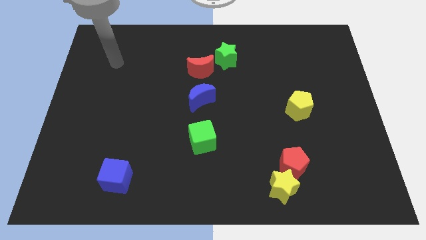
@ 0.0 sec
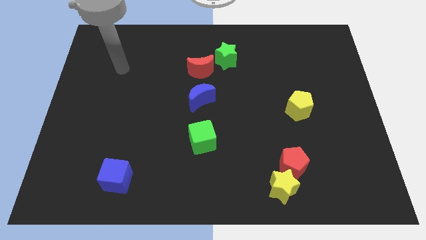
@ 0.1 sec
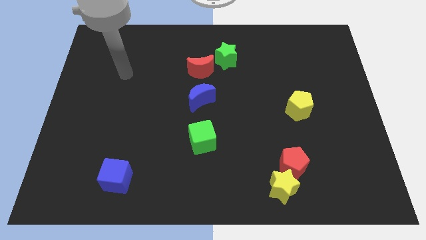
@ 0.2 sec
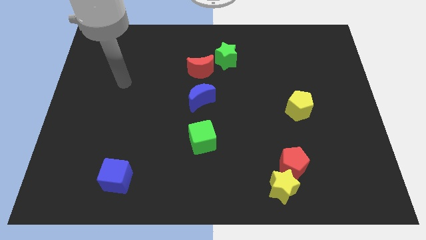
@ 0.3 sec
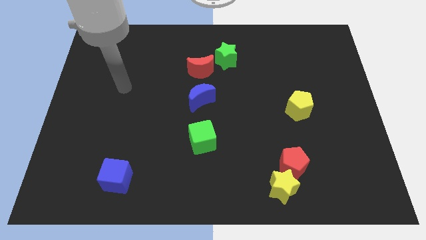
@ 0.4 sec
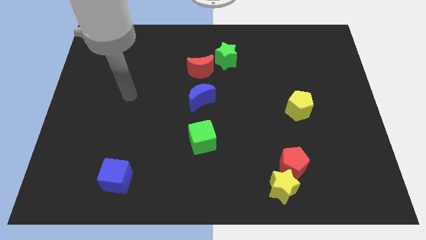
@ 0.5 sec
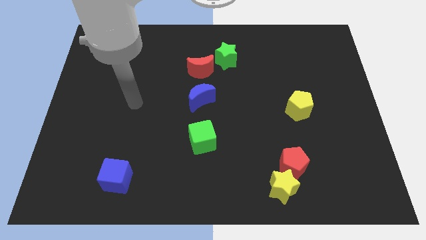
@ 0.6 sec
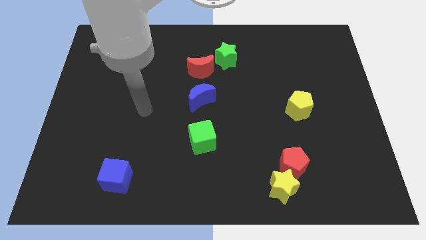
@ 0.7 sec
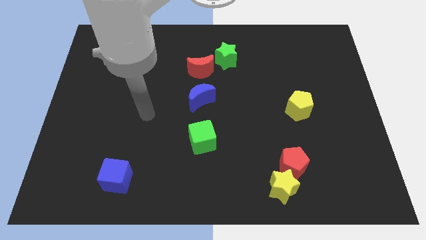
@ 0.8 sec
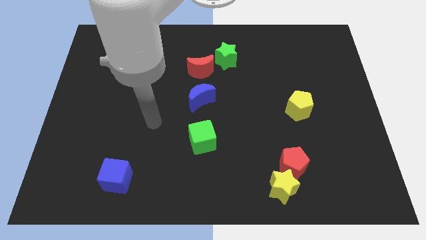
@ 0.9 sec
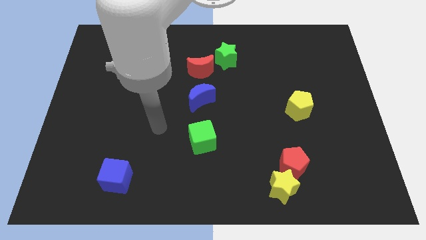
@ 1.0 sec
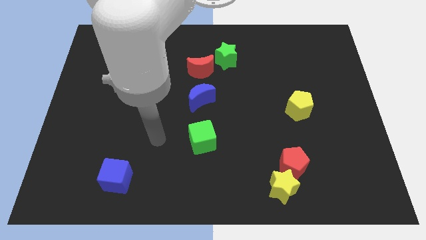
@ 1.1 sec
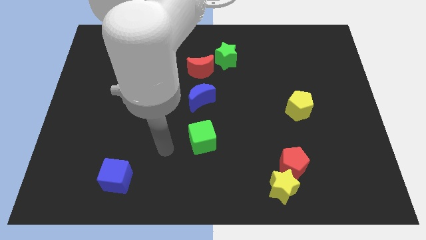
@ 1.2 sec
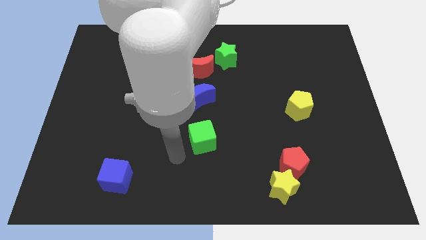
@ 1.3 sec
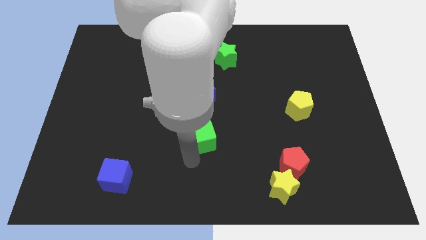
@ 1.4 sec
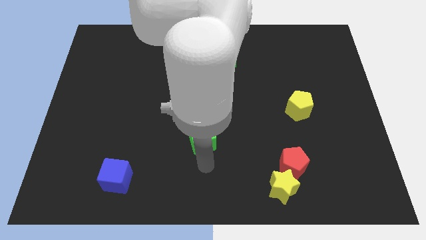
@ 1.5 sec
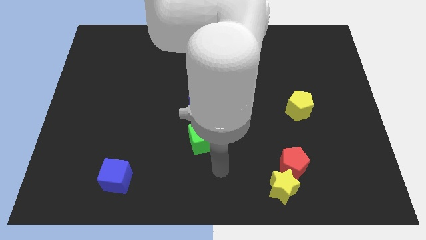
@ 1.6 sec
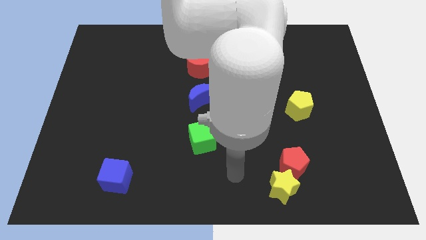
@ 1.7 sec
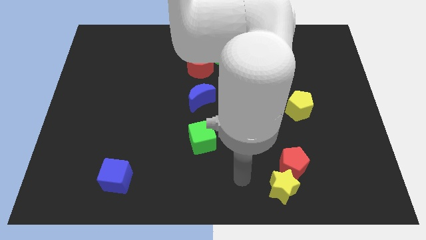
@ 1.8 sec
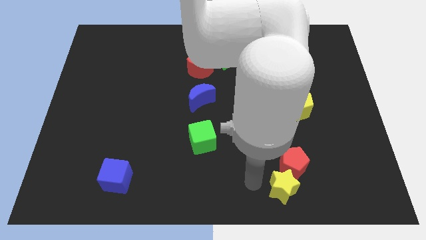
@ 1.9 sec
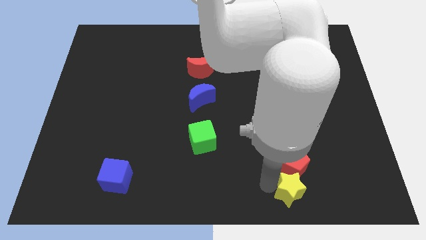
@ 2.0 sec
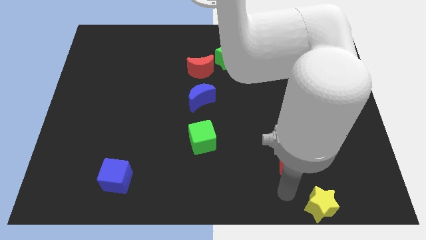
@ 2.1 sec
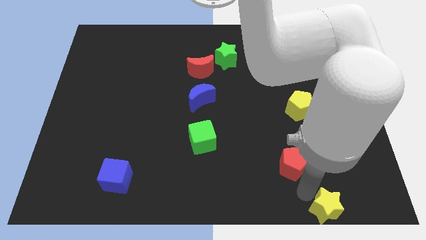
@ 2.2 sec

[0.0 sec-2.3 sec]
move the red pentagon away from the yellow star

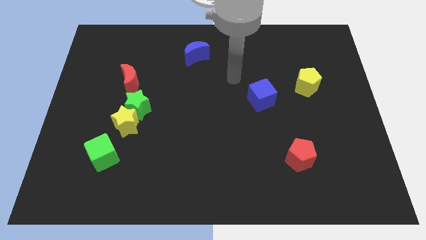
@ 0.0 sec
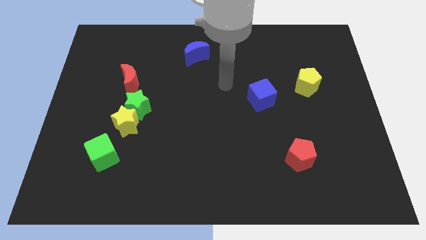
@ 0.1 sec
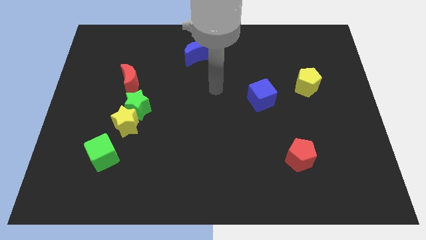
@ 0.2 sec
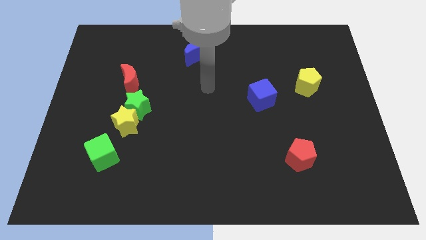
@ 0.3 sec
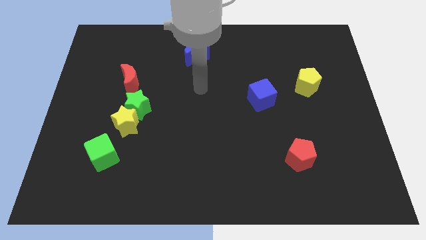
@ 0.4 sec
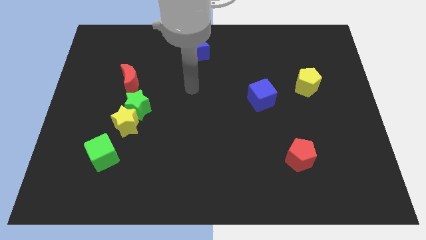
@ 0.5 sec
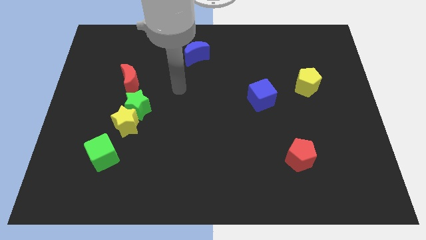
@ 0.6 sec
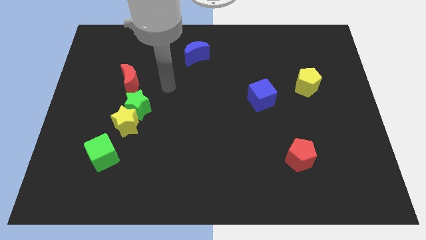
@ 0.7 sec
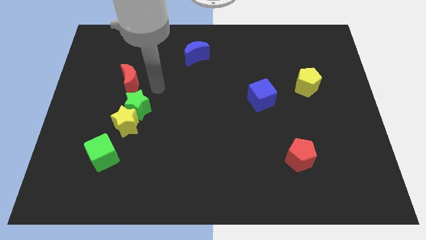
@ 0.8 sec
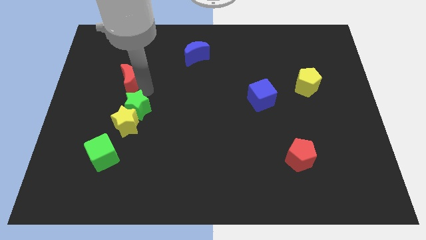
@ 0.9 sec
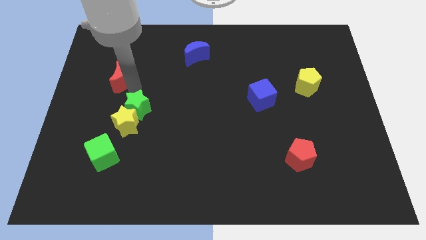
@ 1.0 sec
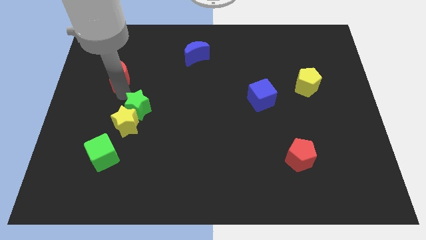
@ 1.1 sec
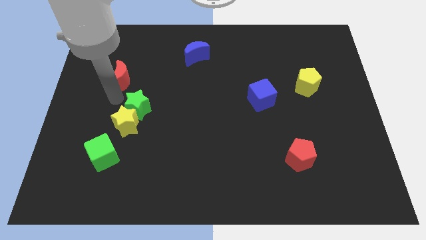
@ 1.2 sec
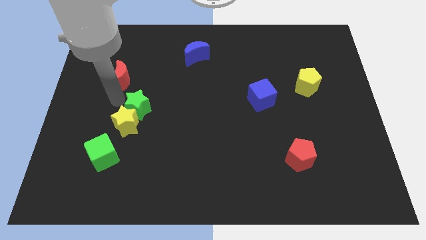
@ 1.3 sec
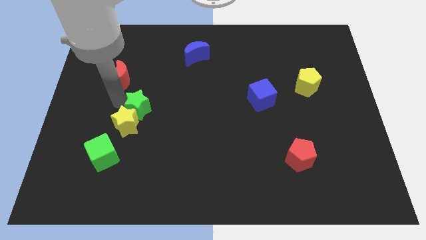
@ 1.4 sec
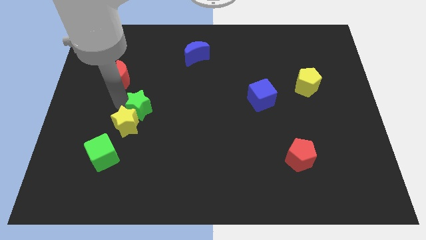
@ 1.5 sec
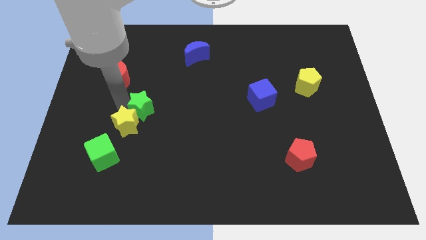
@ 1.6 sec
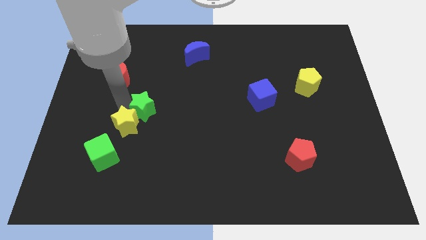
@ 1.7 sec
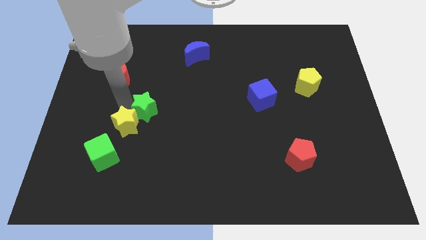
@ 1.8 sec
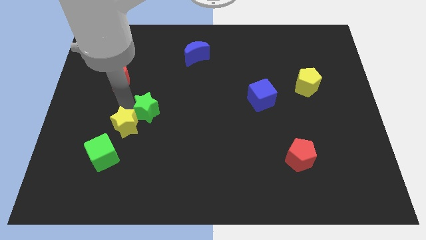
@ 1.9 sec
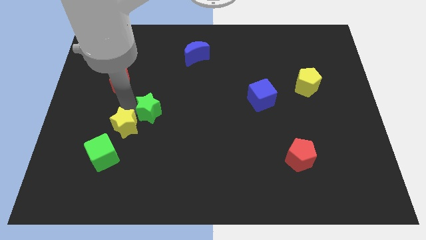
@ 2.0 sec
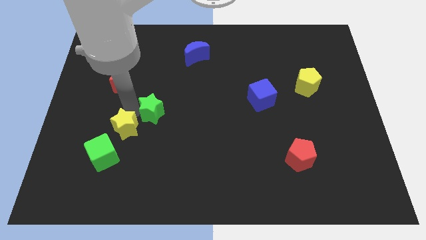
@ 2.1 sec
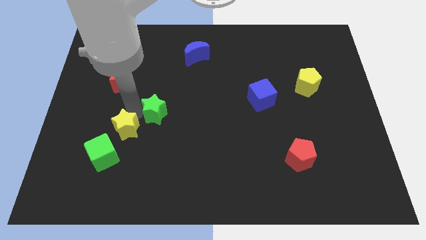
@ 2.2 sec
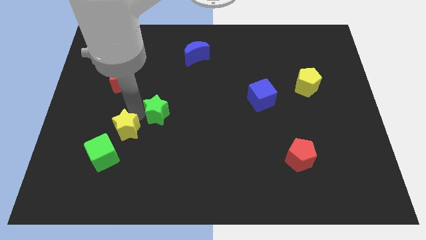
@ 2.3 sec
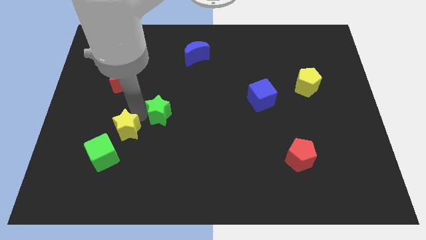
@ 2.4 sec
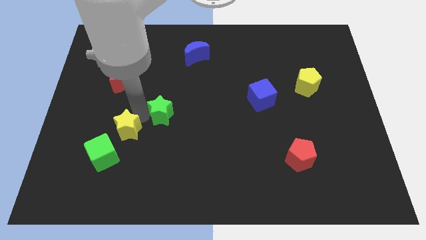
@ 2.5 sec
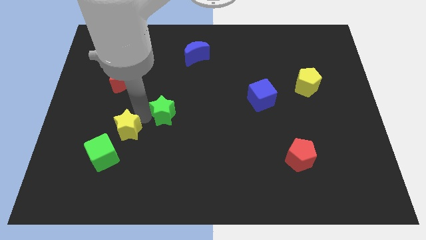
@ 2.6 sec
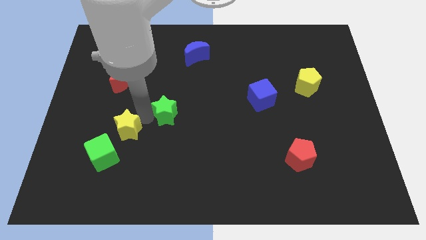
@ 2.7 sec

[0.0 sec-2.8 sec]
move the green star away from the yellow star and red moon

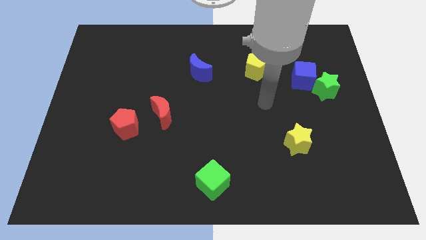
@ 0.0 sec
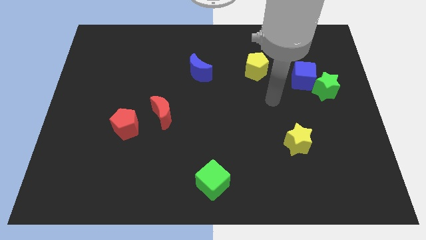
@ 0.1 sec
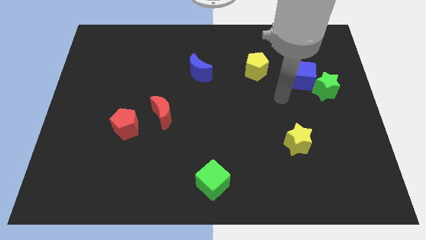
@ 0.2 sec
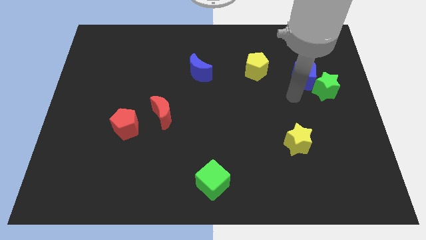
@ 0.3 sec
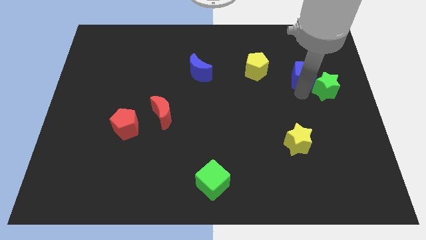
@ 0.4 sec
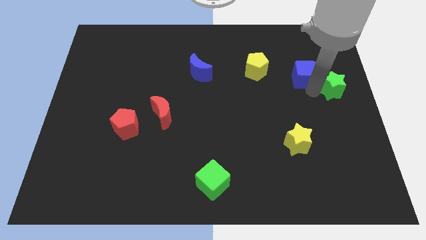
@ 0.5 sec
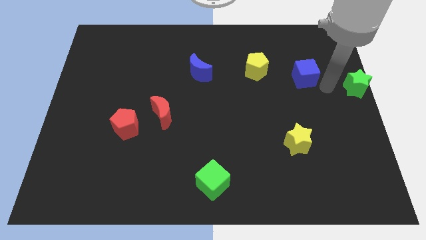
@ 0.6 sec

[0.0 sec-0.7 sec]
pull the blue cube apart from the green star

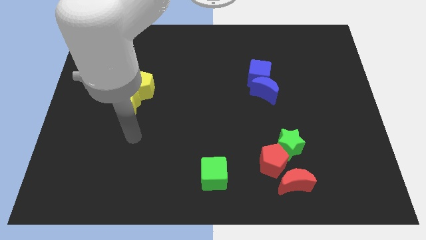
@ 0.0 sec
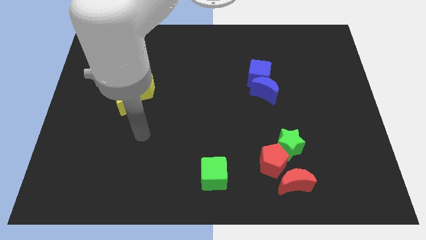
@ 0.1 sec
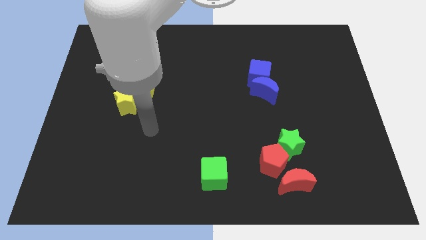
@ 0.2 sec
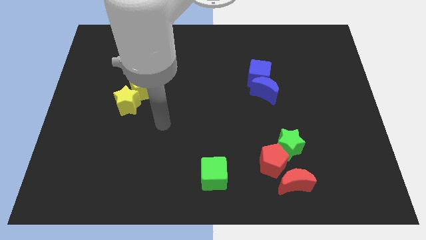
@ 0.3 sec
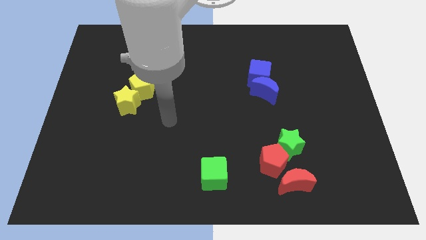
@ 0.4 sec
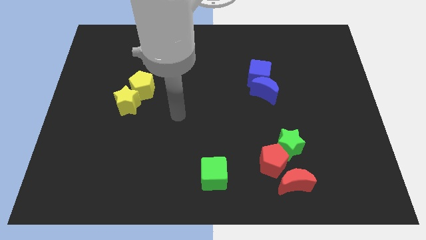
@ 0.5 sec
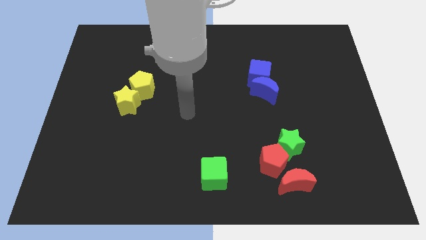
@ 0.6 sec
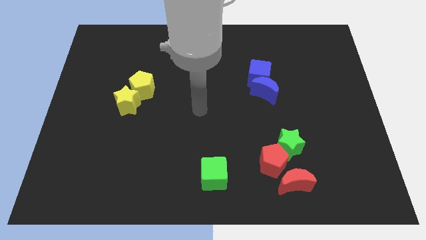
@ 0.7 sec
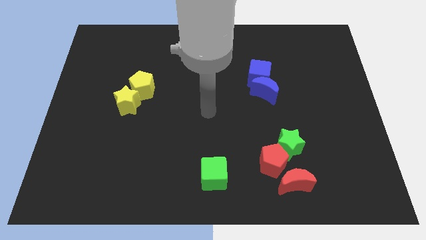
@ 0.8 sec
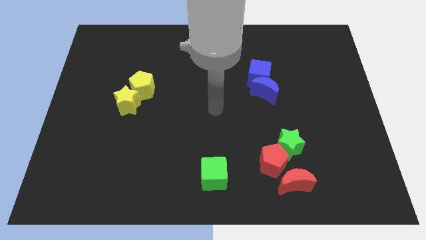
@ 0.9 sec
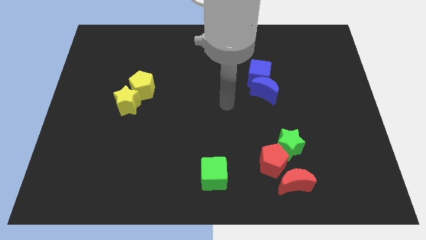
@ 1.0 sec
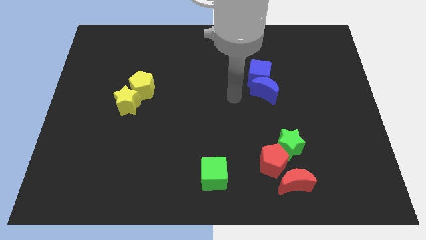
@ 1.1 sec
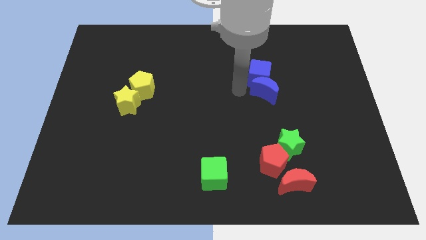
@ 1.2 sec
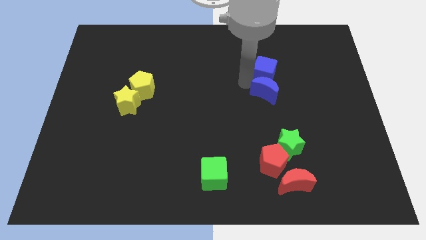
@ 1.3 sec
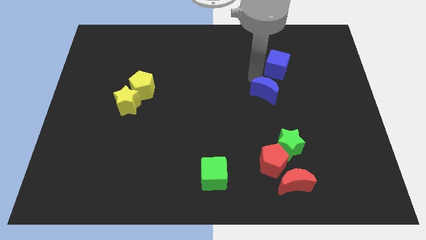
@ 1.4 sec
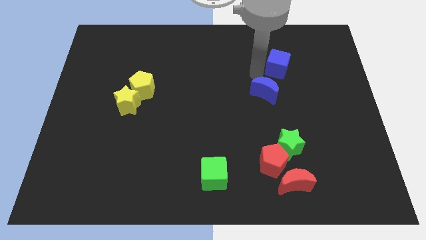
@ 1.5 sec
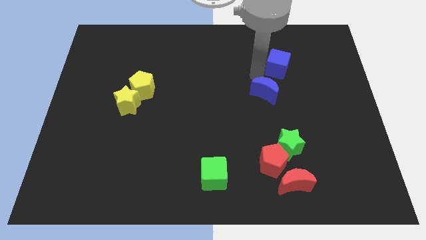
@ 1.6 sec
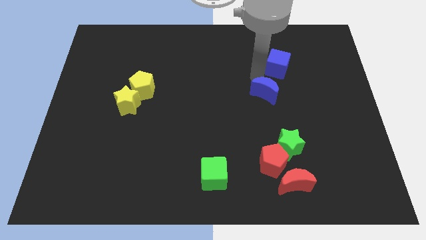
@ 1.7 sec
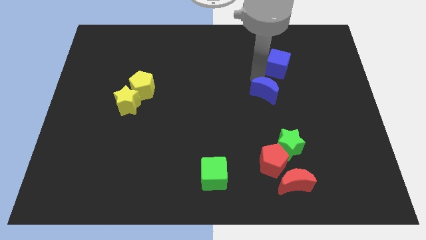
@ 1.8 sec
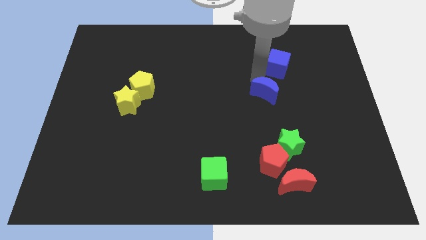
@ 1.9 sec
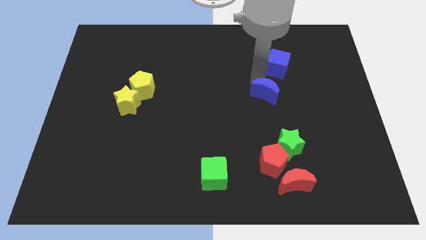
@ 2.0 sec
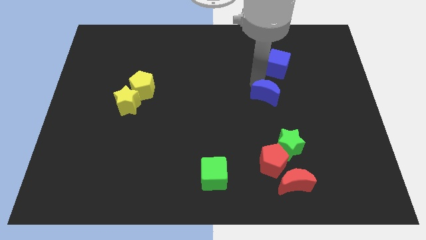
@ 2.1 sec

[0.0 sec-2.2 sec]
separate the blue moon from the blue cube

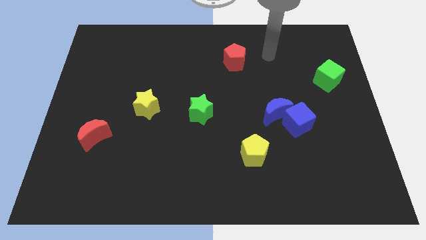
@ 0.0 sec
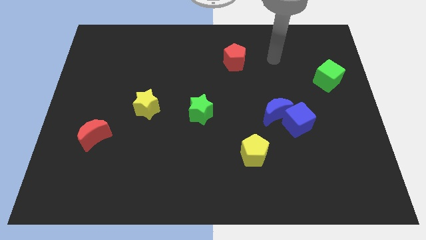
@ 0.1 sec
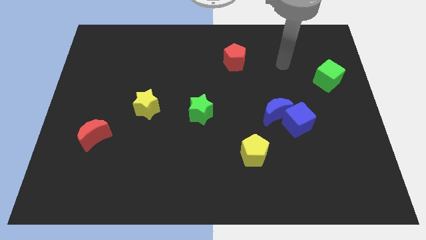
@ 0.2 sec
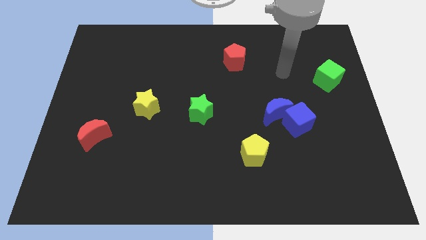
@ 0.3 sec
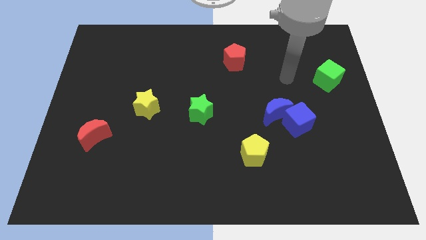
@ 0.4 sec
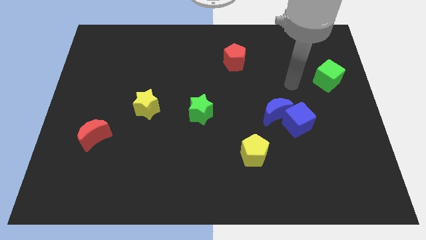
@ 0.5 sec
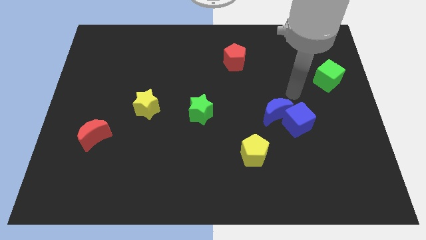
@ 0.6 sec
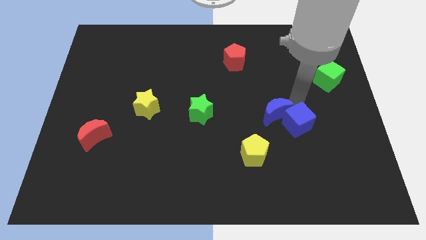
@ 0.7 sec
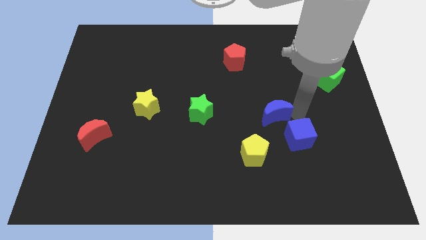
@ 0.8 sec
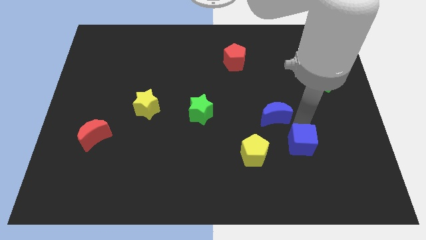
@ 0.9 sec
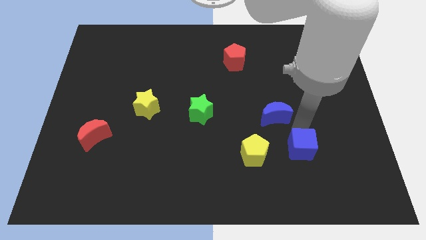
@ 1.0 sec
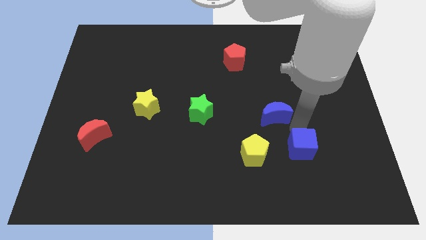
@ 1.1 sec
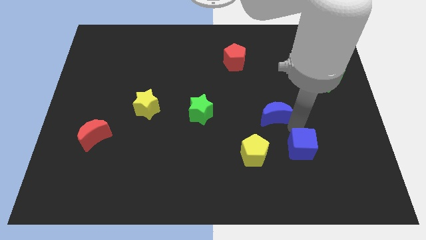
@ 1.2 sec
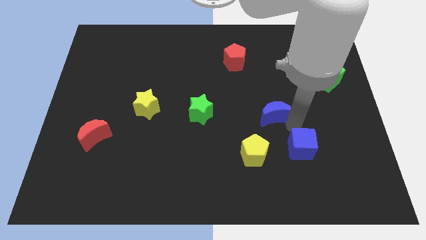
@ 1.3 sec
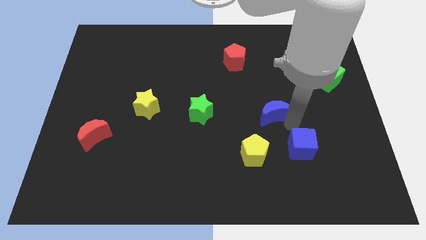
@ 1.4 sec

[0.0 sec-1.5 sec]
pull the blue moon apart from the blue cube
